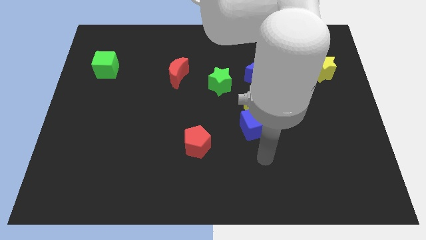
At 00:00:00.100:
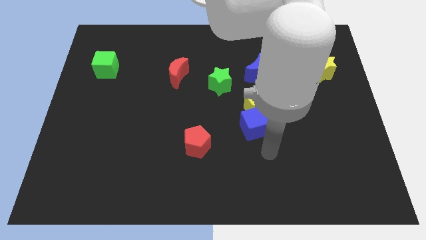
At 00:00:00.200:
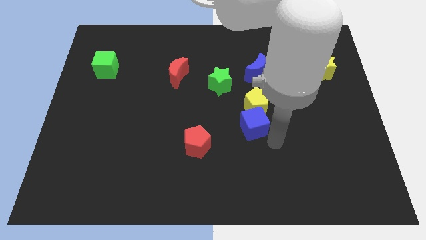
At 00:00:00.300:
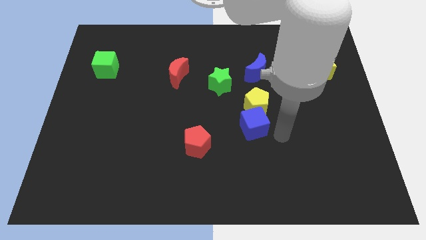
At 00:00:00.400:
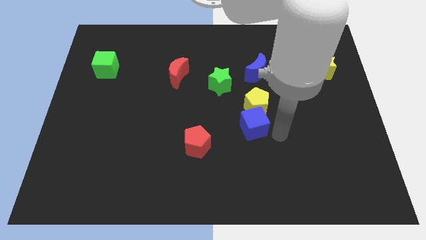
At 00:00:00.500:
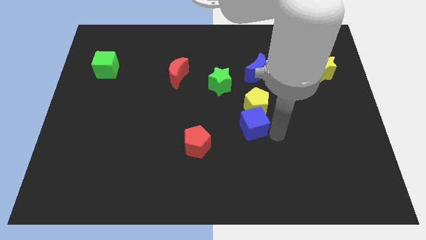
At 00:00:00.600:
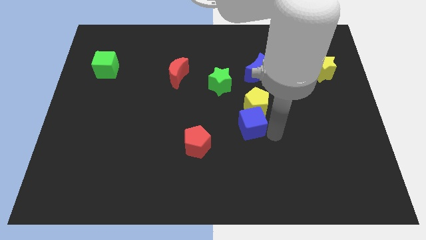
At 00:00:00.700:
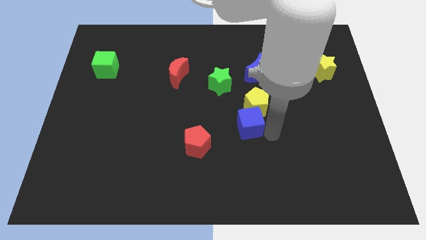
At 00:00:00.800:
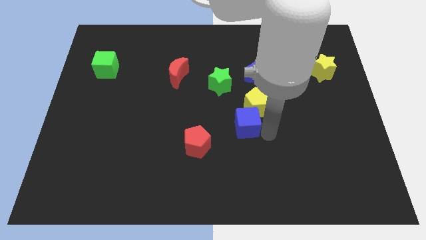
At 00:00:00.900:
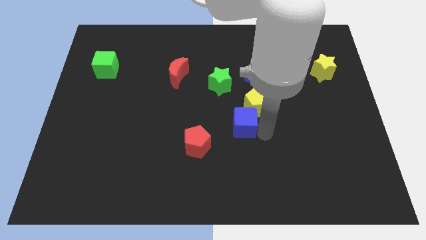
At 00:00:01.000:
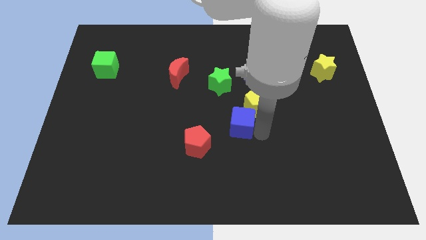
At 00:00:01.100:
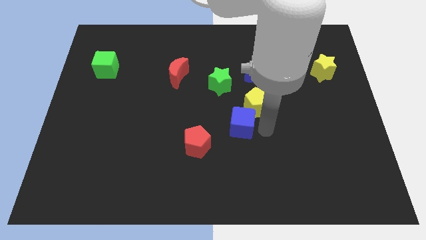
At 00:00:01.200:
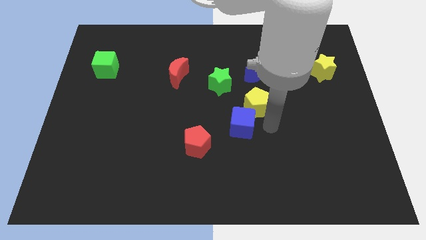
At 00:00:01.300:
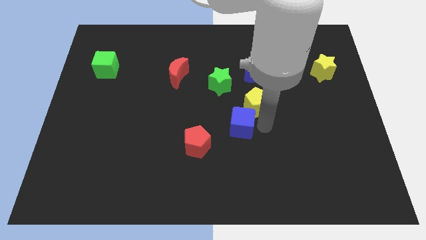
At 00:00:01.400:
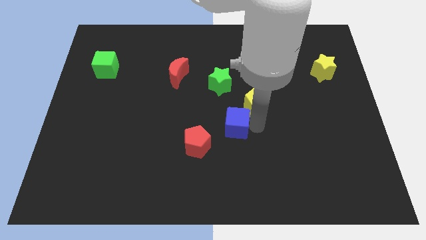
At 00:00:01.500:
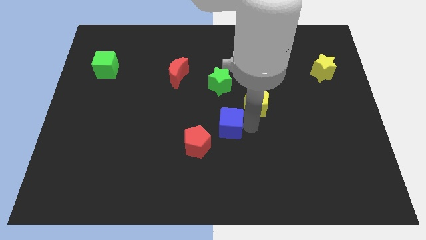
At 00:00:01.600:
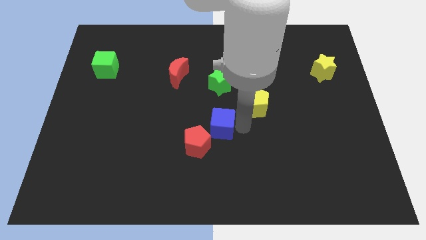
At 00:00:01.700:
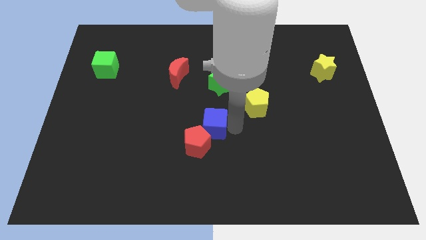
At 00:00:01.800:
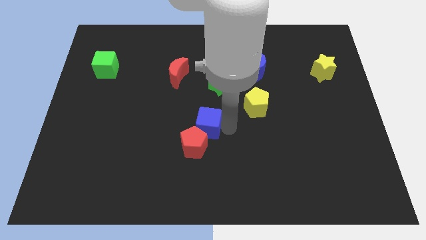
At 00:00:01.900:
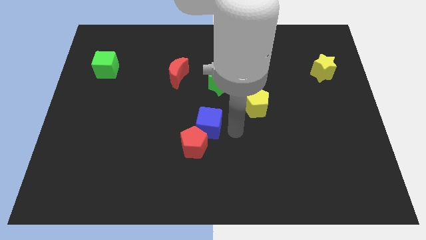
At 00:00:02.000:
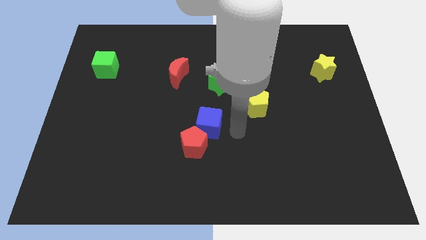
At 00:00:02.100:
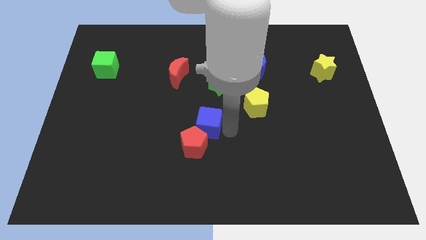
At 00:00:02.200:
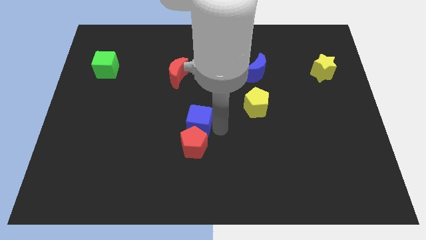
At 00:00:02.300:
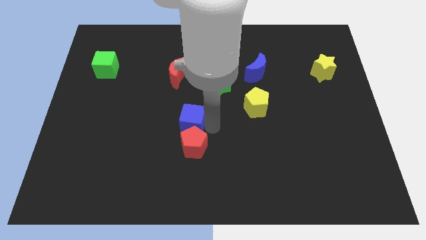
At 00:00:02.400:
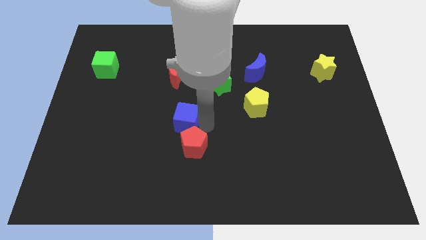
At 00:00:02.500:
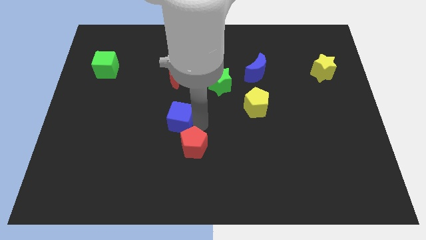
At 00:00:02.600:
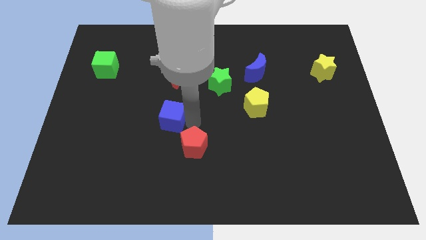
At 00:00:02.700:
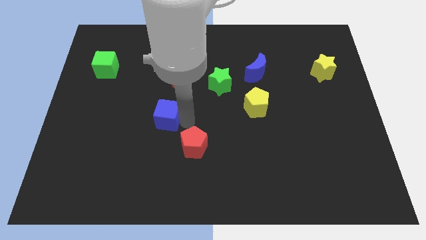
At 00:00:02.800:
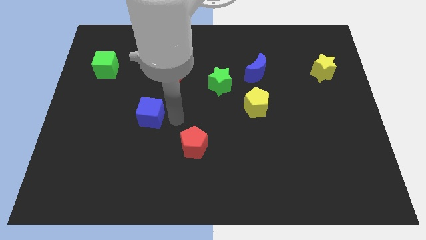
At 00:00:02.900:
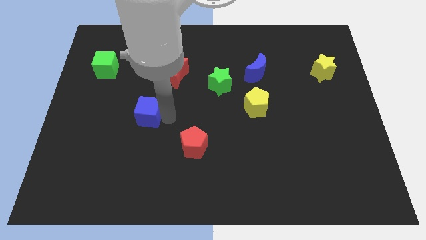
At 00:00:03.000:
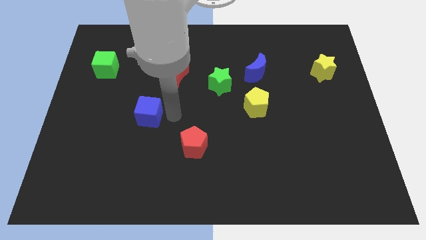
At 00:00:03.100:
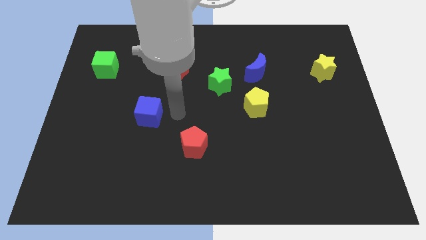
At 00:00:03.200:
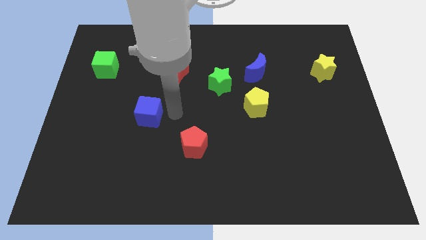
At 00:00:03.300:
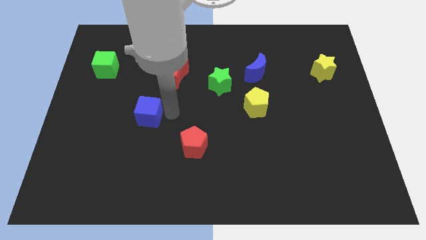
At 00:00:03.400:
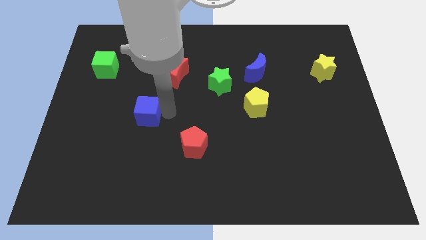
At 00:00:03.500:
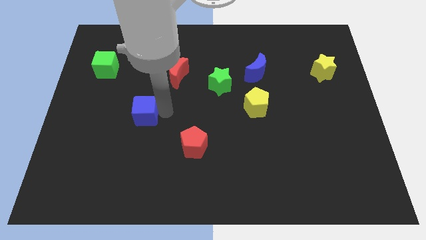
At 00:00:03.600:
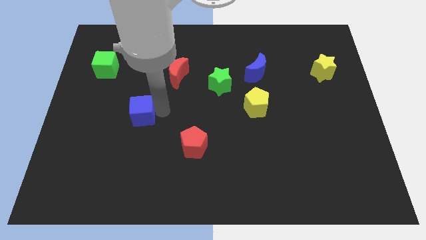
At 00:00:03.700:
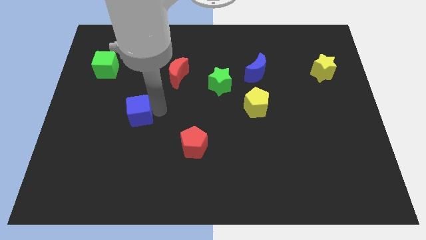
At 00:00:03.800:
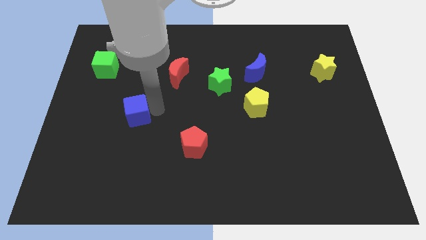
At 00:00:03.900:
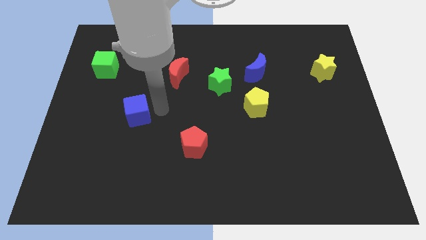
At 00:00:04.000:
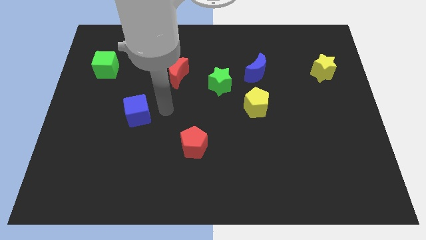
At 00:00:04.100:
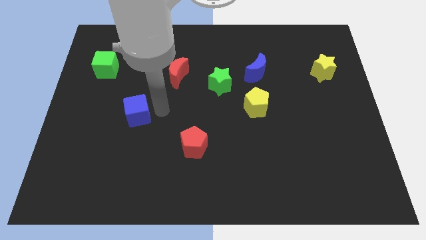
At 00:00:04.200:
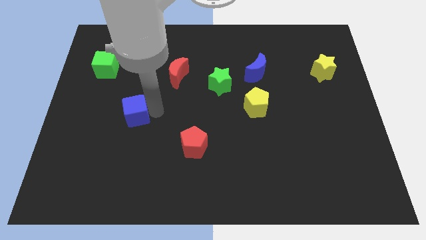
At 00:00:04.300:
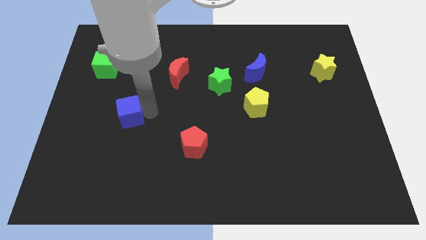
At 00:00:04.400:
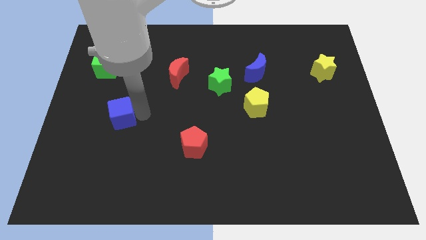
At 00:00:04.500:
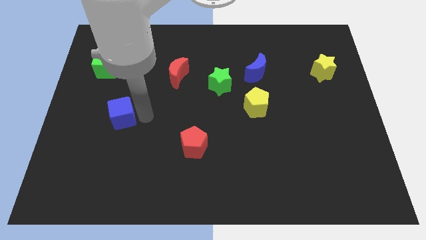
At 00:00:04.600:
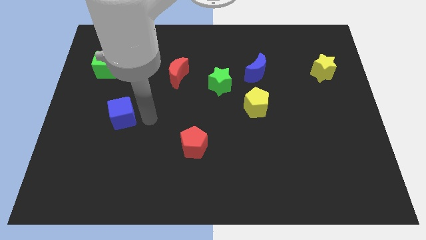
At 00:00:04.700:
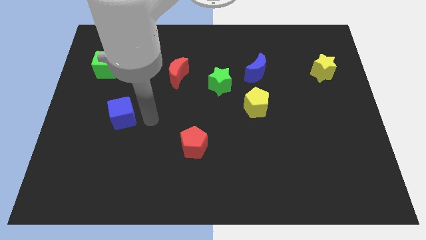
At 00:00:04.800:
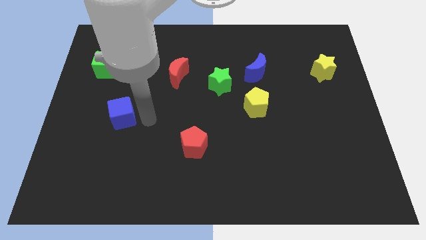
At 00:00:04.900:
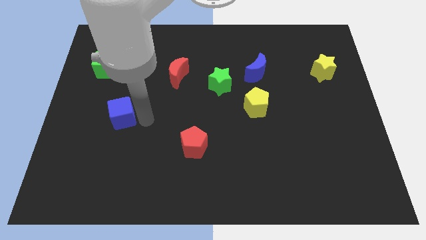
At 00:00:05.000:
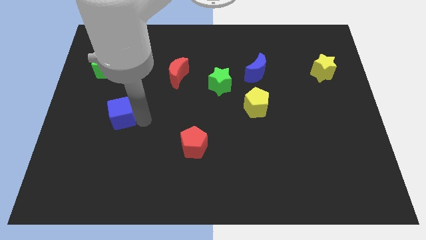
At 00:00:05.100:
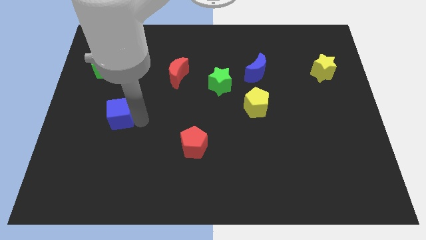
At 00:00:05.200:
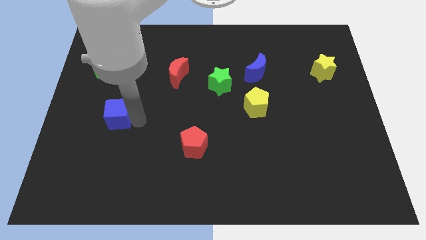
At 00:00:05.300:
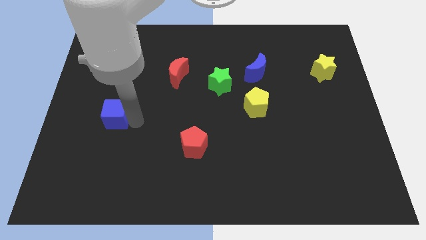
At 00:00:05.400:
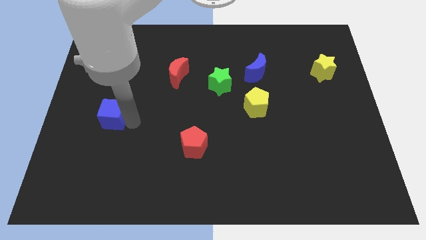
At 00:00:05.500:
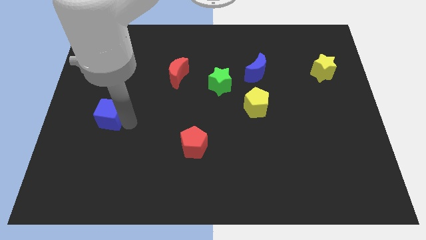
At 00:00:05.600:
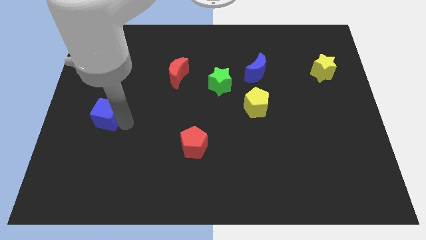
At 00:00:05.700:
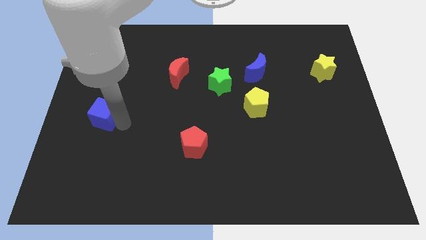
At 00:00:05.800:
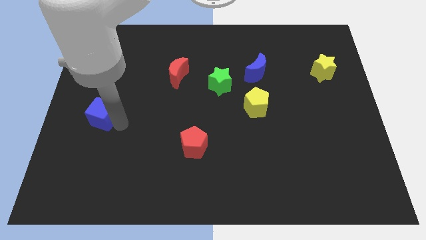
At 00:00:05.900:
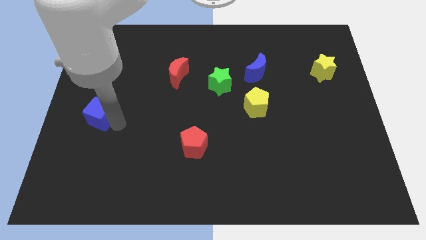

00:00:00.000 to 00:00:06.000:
move the blue cube to the left side
